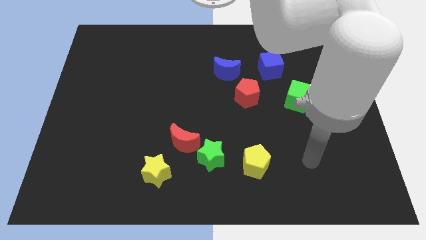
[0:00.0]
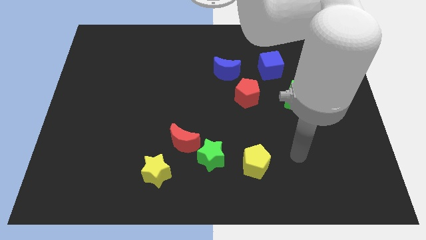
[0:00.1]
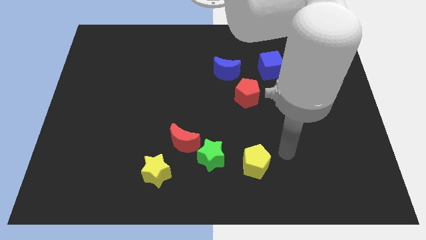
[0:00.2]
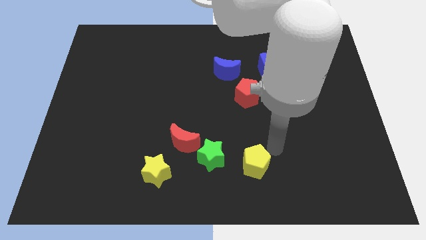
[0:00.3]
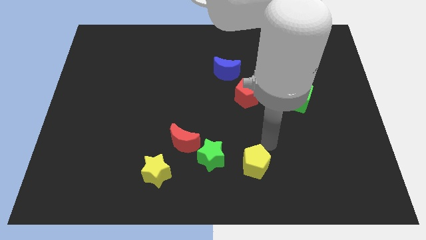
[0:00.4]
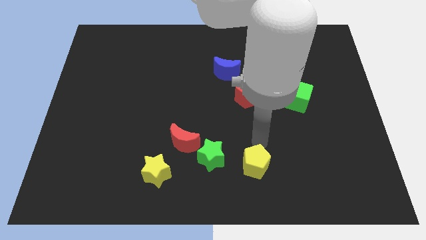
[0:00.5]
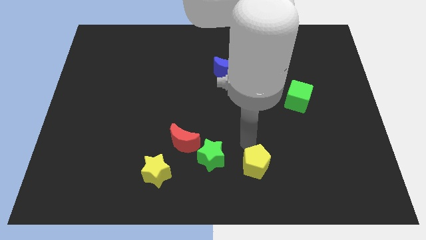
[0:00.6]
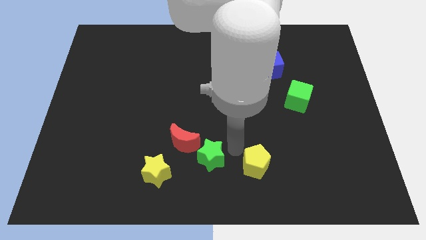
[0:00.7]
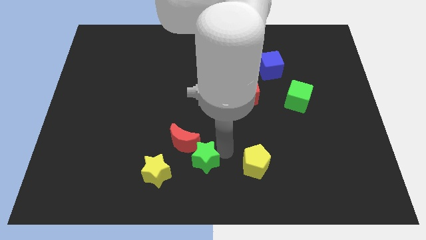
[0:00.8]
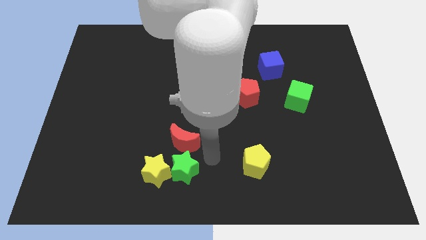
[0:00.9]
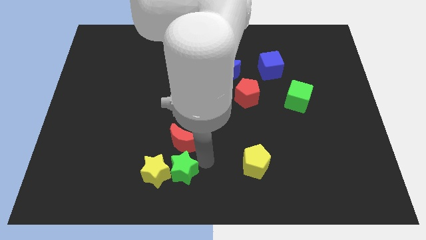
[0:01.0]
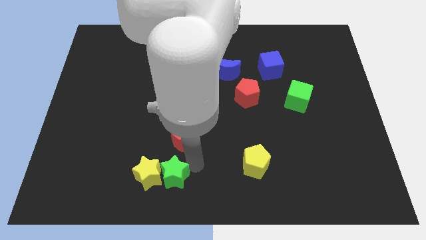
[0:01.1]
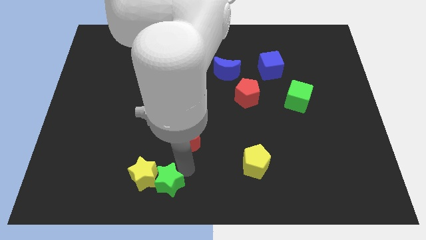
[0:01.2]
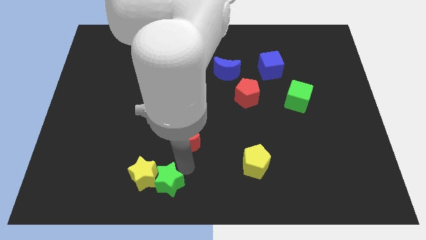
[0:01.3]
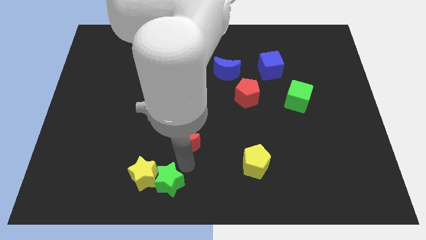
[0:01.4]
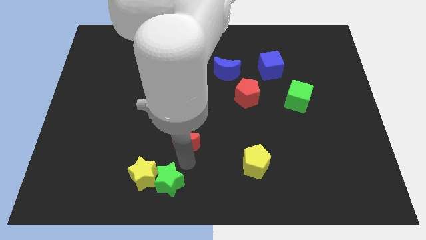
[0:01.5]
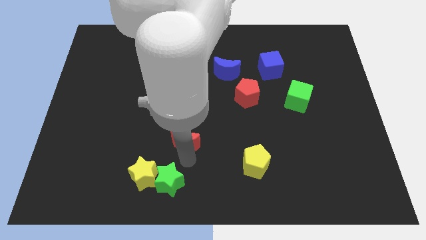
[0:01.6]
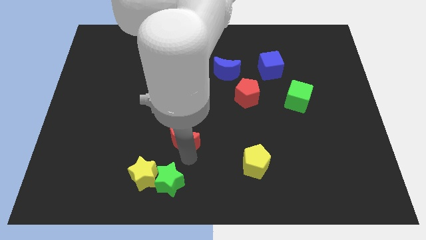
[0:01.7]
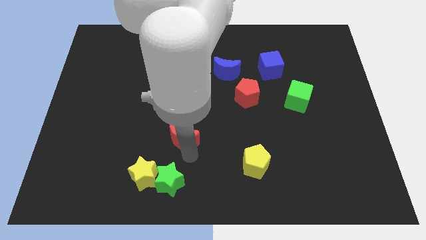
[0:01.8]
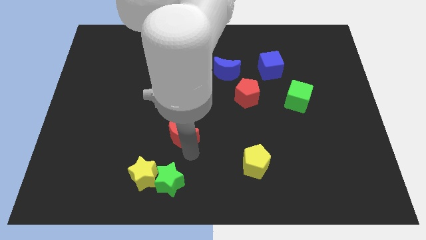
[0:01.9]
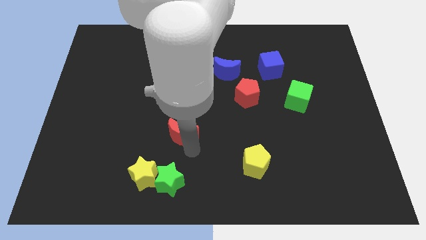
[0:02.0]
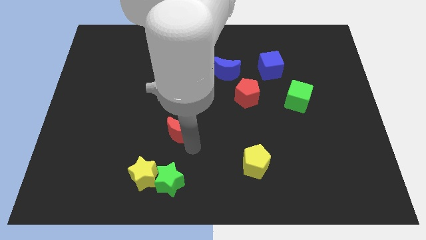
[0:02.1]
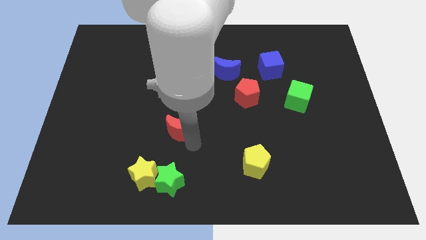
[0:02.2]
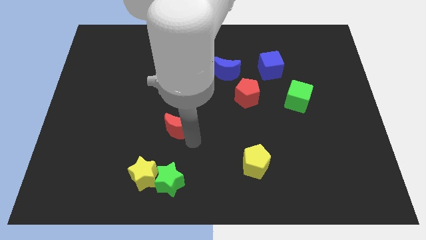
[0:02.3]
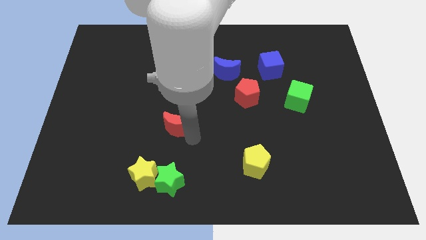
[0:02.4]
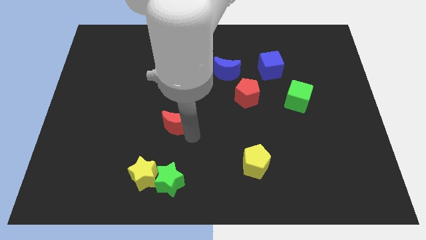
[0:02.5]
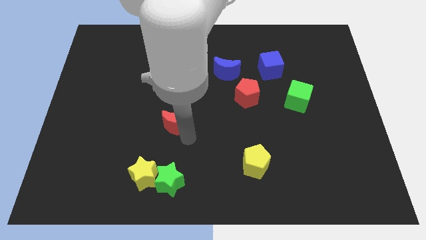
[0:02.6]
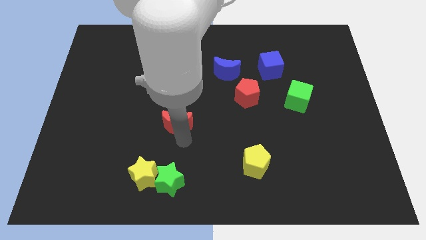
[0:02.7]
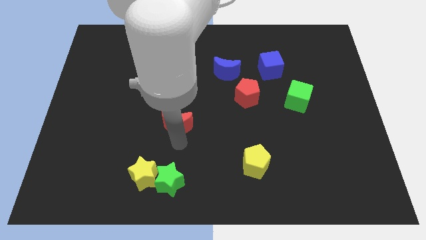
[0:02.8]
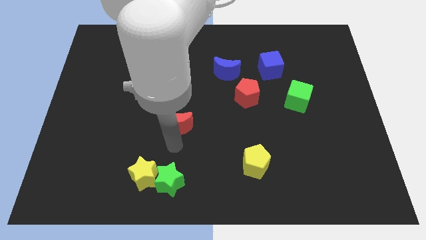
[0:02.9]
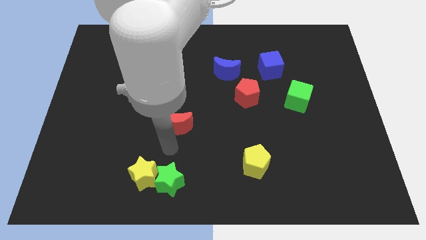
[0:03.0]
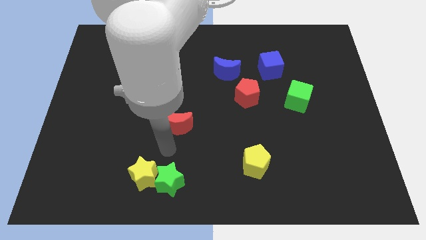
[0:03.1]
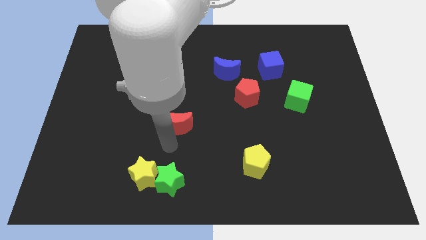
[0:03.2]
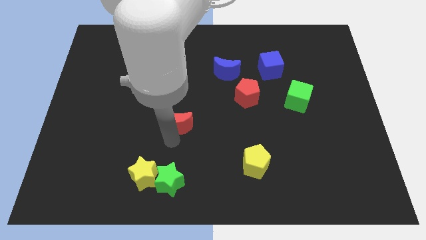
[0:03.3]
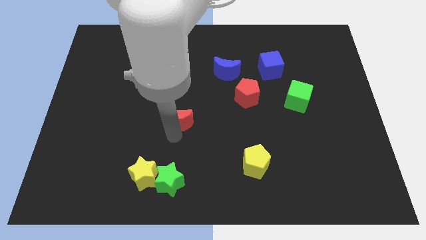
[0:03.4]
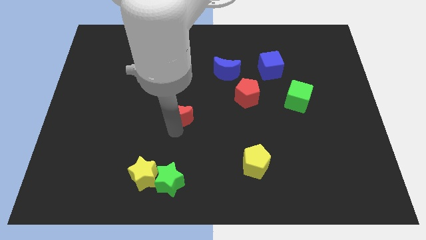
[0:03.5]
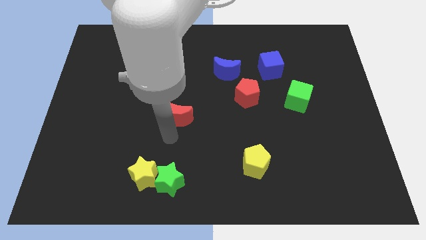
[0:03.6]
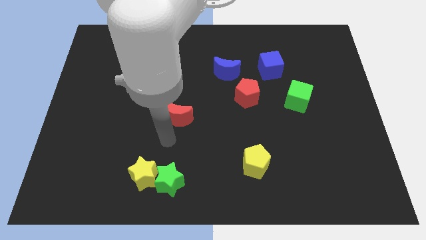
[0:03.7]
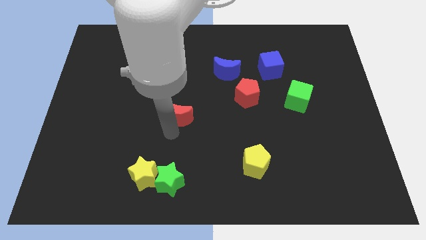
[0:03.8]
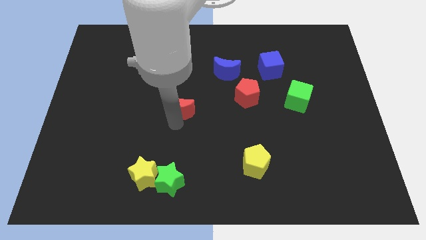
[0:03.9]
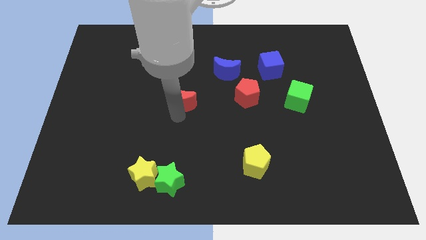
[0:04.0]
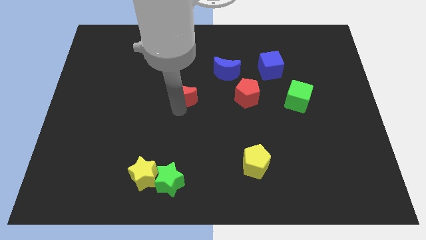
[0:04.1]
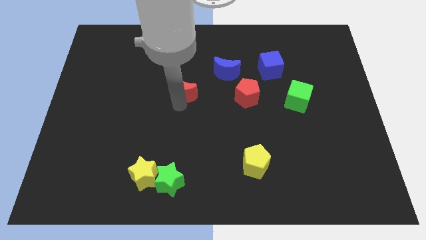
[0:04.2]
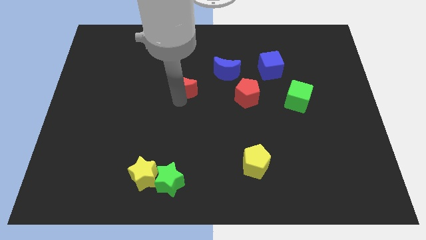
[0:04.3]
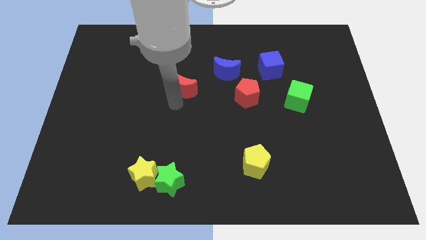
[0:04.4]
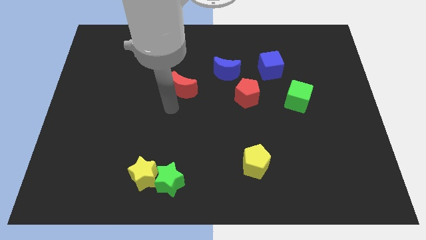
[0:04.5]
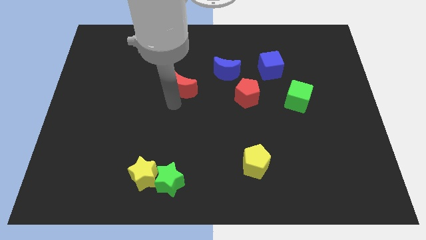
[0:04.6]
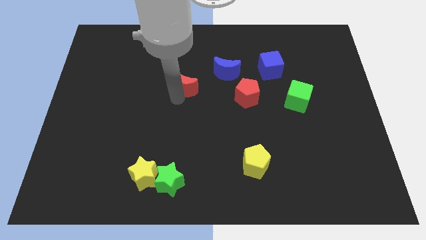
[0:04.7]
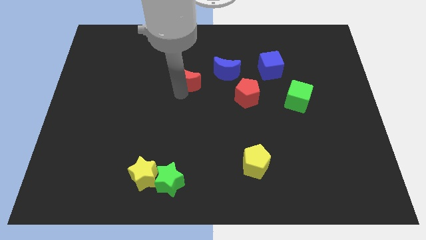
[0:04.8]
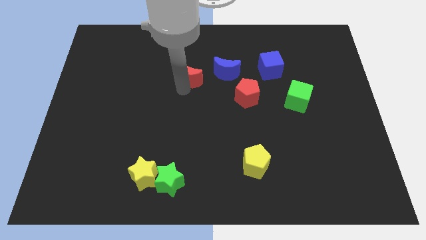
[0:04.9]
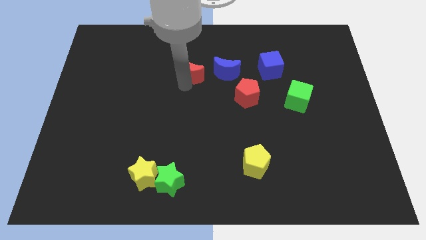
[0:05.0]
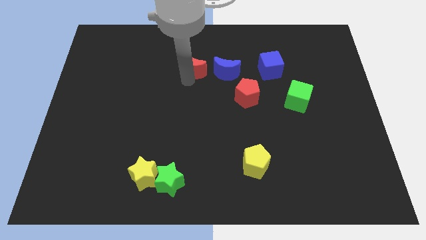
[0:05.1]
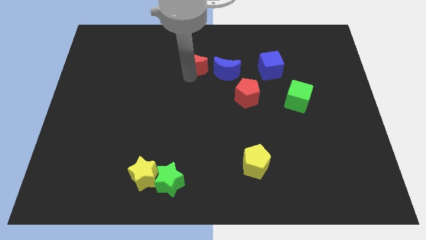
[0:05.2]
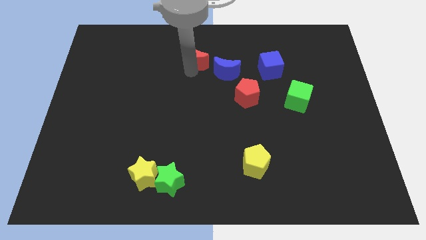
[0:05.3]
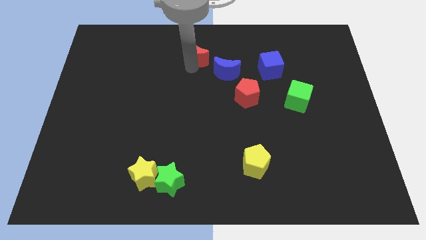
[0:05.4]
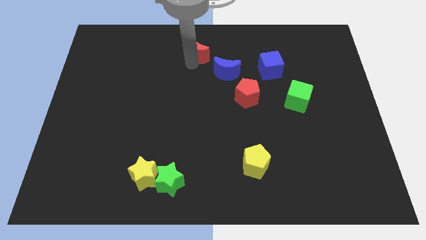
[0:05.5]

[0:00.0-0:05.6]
put the red moon to the top side

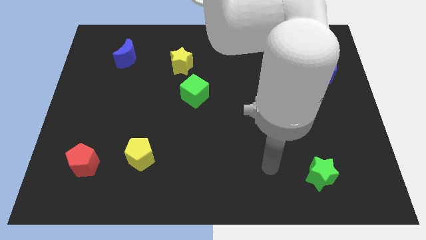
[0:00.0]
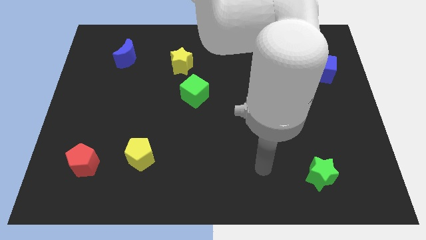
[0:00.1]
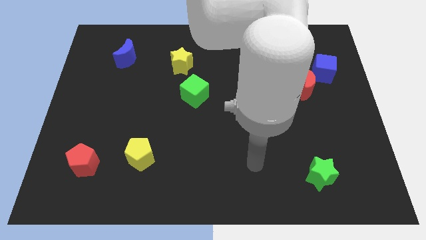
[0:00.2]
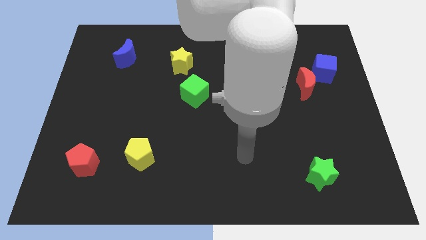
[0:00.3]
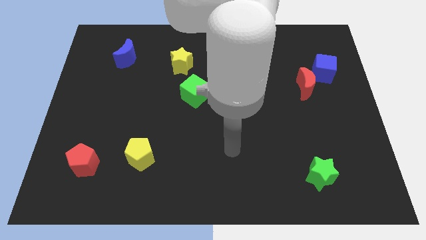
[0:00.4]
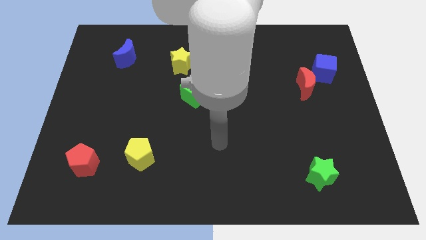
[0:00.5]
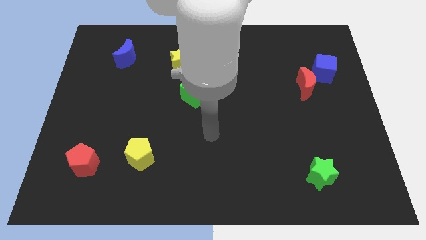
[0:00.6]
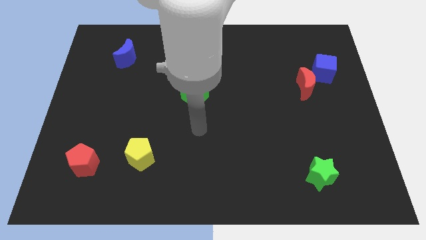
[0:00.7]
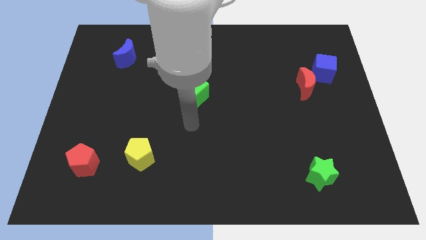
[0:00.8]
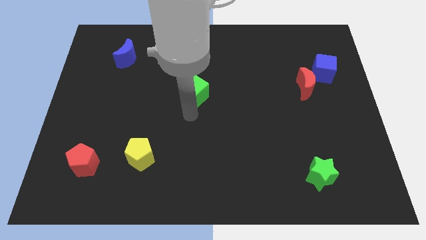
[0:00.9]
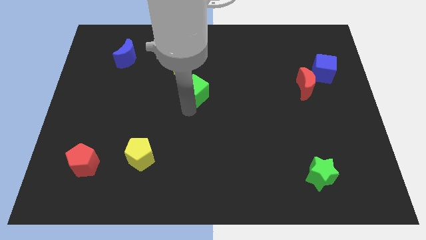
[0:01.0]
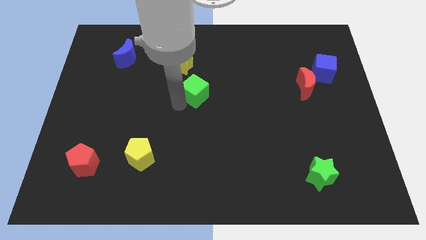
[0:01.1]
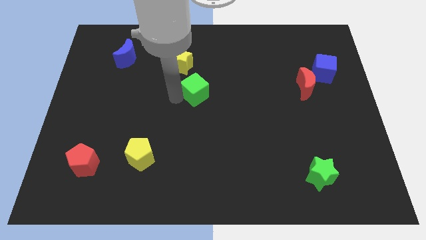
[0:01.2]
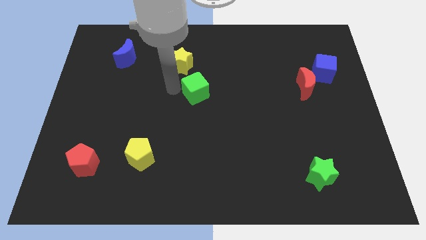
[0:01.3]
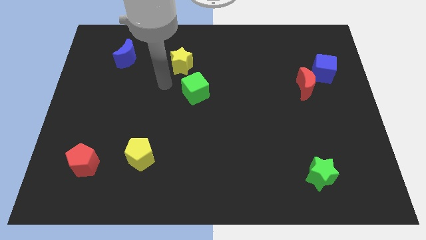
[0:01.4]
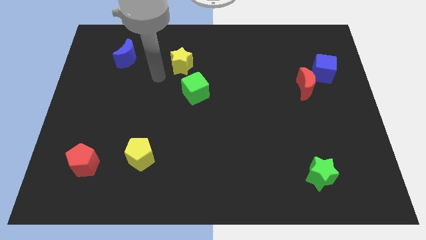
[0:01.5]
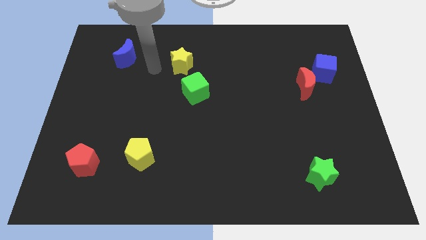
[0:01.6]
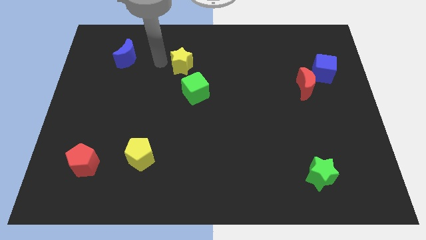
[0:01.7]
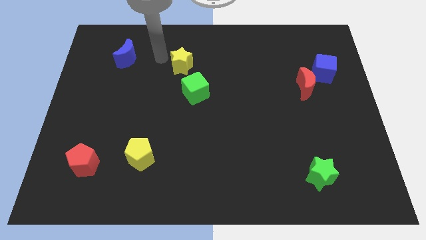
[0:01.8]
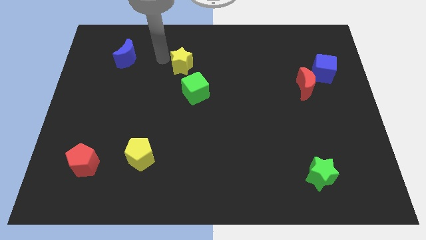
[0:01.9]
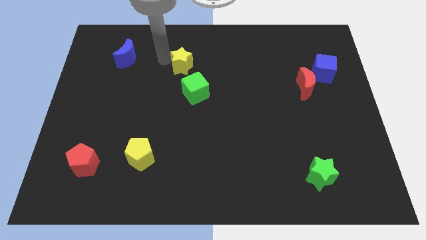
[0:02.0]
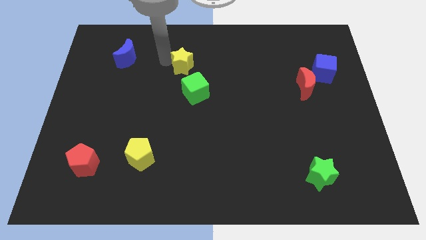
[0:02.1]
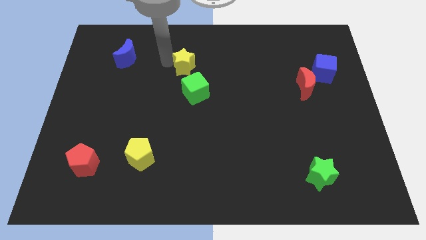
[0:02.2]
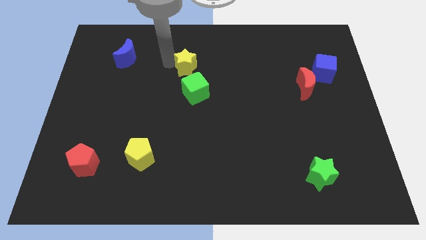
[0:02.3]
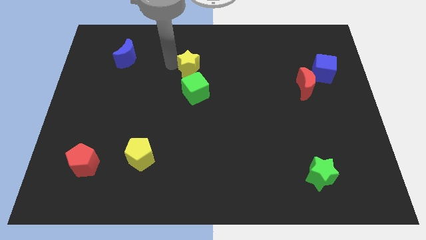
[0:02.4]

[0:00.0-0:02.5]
move the yellow star to the middle
